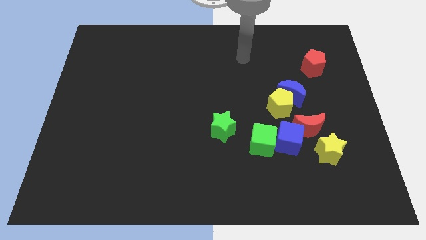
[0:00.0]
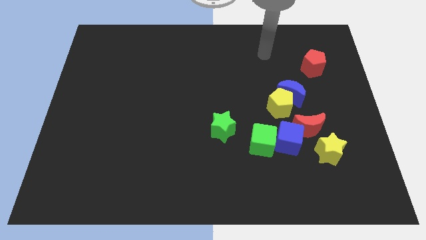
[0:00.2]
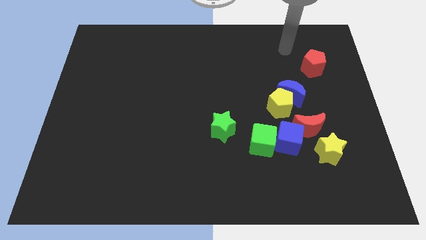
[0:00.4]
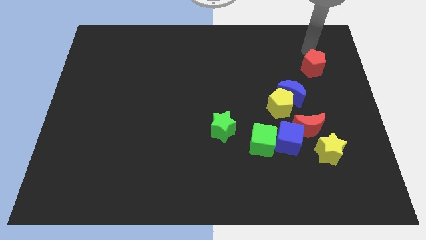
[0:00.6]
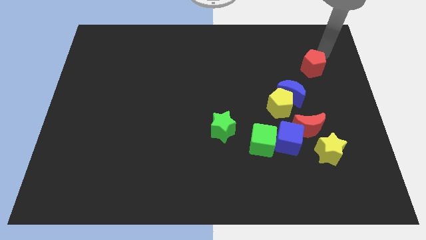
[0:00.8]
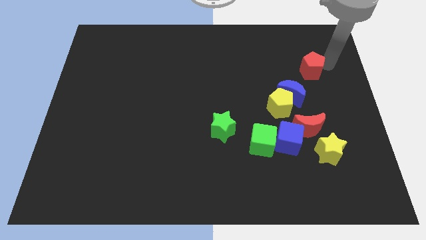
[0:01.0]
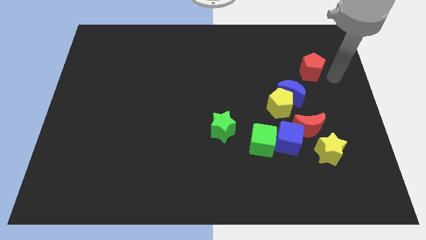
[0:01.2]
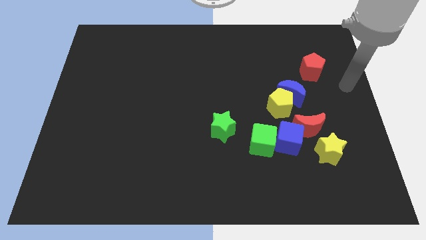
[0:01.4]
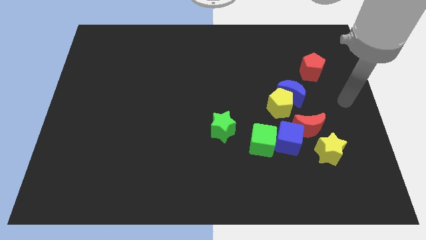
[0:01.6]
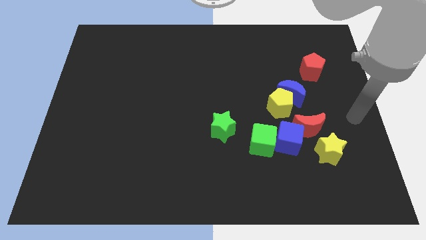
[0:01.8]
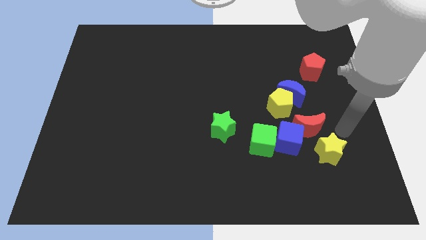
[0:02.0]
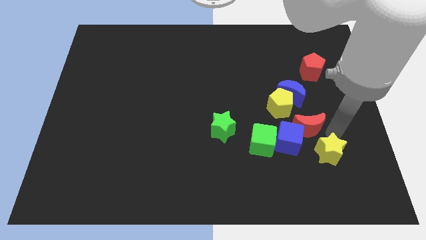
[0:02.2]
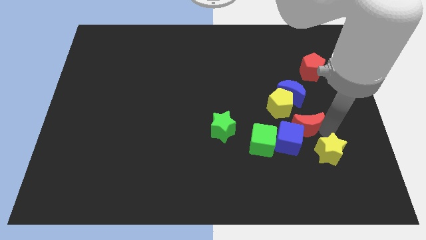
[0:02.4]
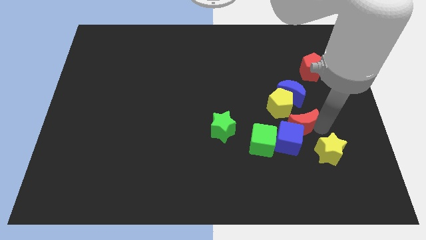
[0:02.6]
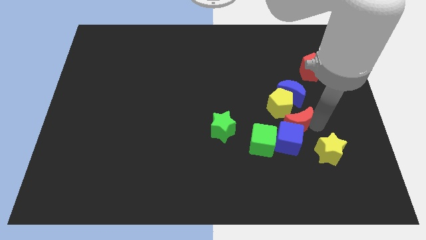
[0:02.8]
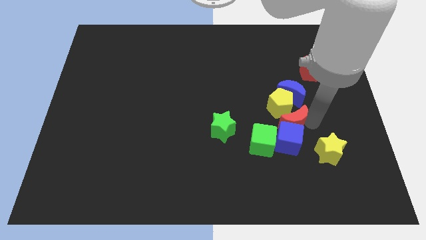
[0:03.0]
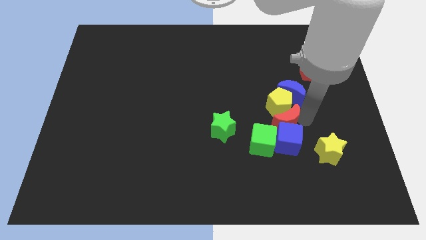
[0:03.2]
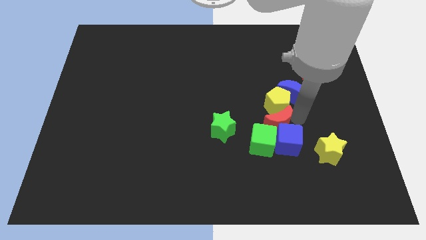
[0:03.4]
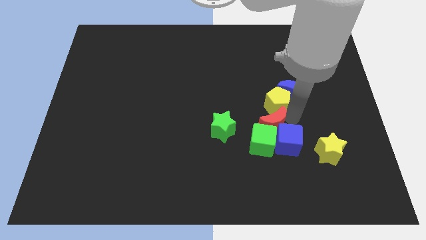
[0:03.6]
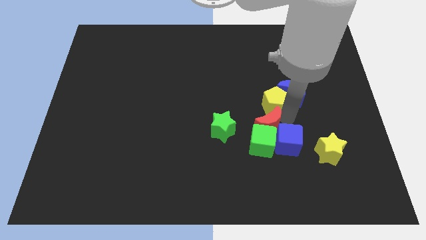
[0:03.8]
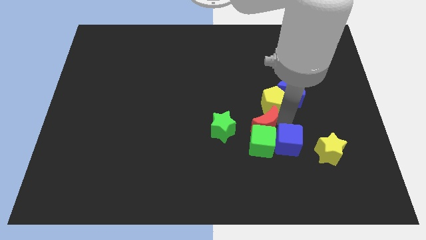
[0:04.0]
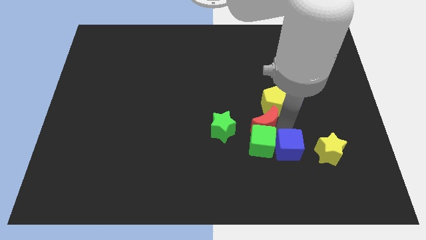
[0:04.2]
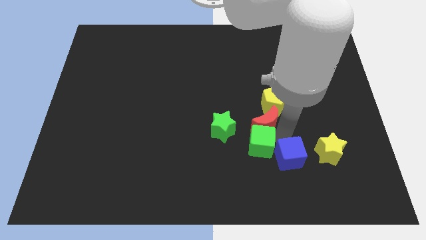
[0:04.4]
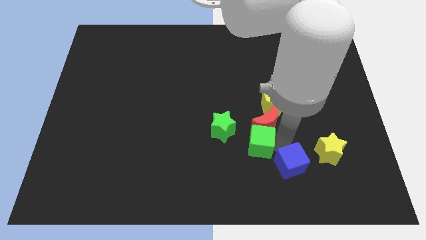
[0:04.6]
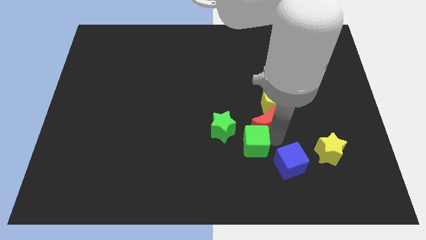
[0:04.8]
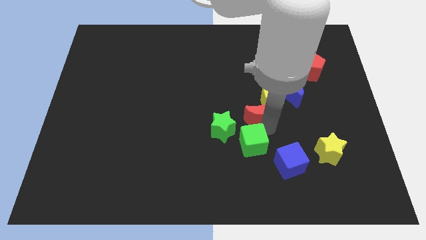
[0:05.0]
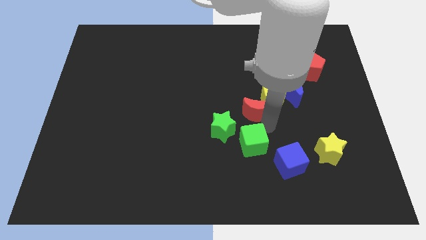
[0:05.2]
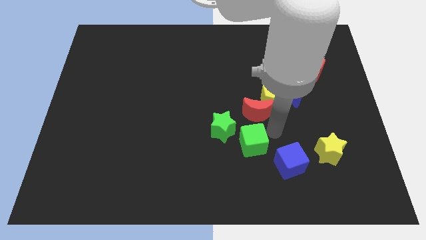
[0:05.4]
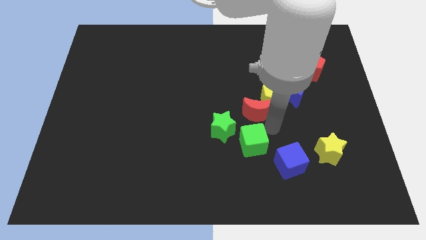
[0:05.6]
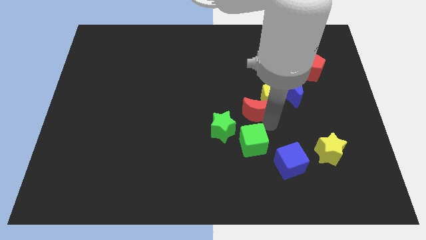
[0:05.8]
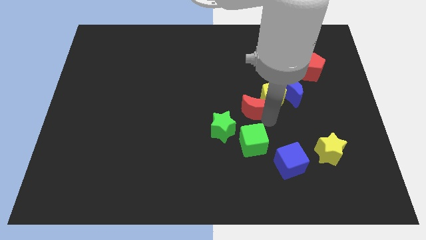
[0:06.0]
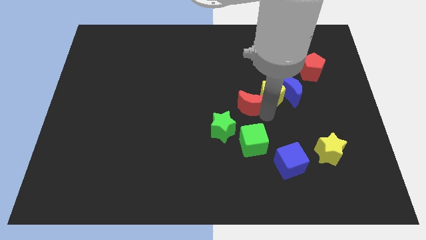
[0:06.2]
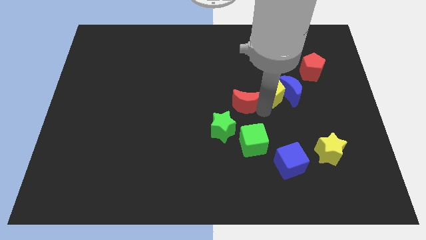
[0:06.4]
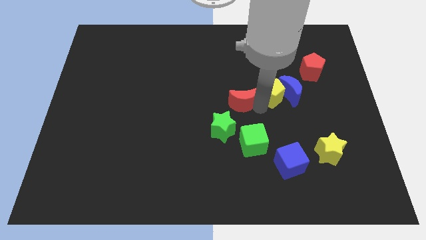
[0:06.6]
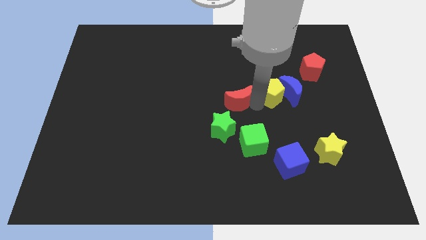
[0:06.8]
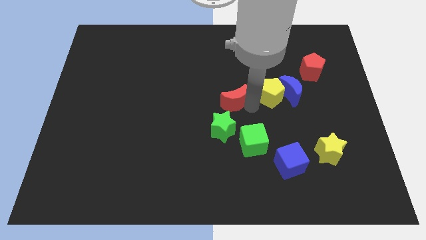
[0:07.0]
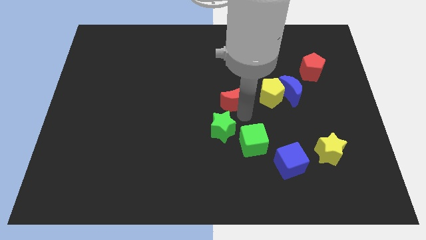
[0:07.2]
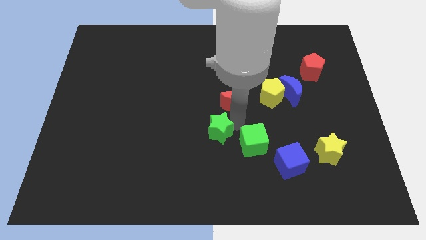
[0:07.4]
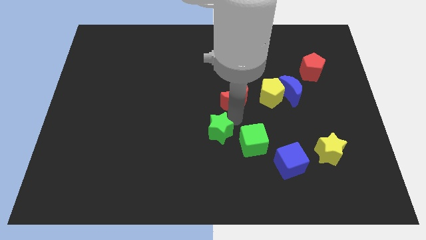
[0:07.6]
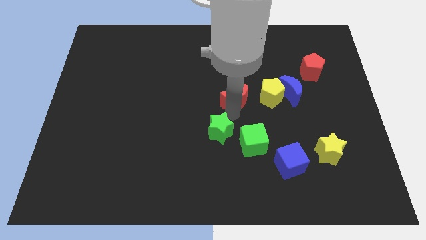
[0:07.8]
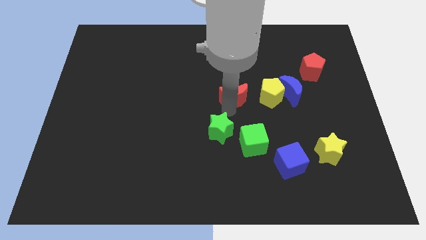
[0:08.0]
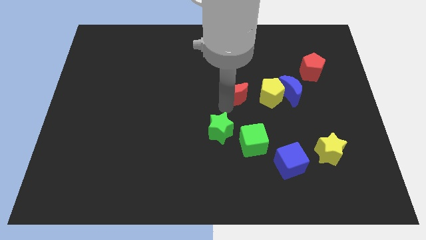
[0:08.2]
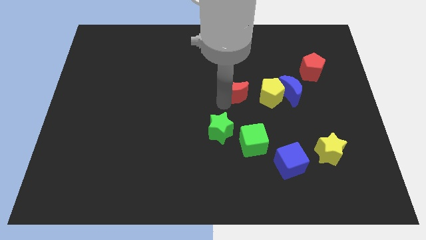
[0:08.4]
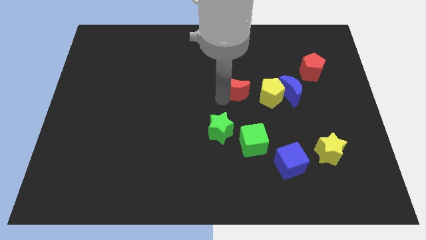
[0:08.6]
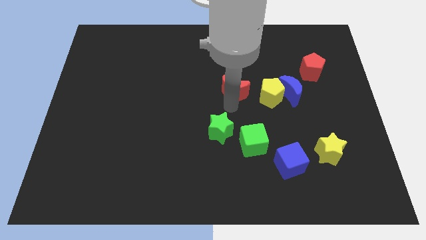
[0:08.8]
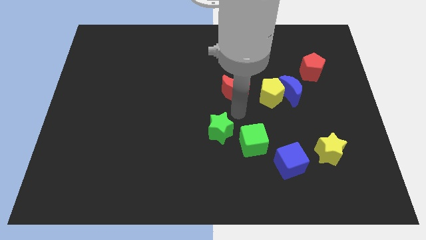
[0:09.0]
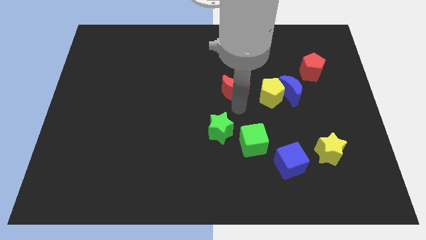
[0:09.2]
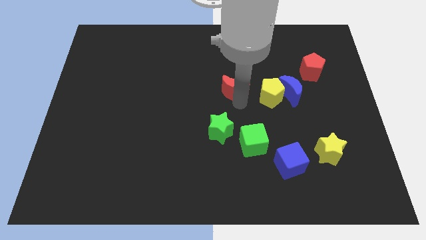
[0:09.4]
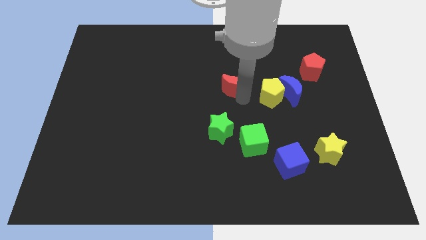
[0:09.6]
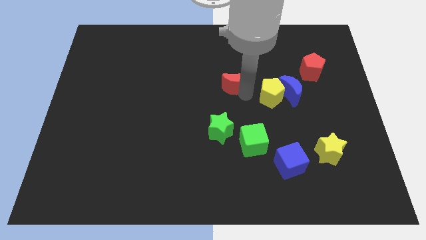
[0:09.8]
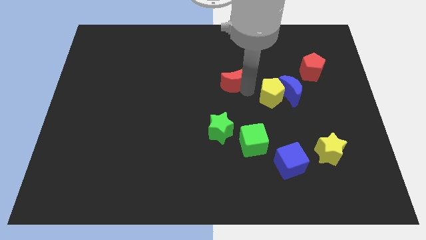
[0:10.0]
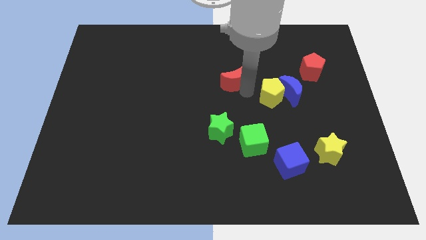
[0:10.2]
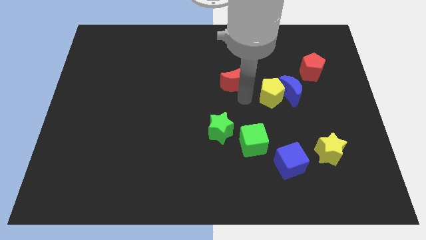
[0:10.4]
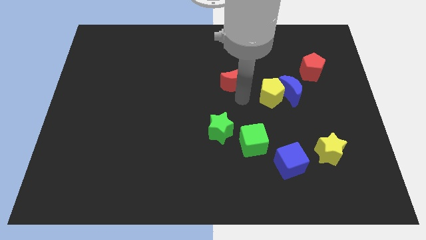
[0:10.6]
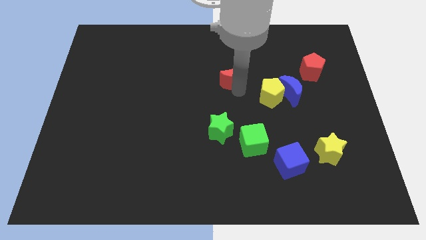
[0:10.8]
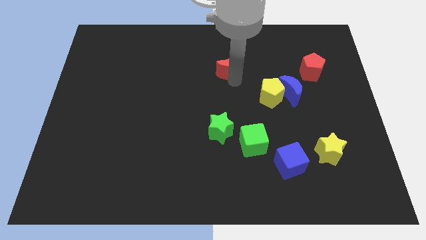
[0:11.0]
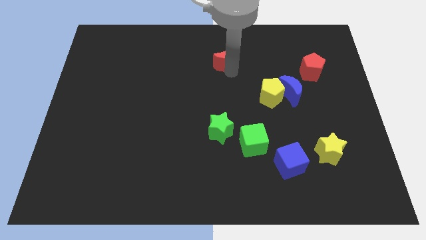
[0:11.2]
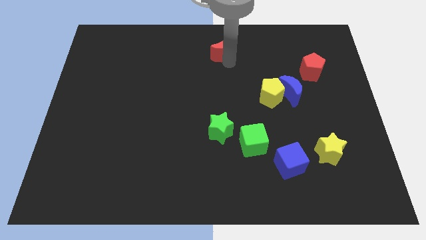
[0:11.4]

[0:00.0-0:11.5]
move the red moon to the towards your base

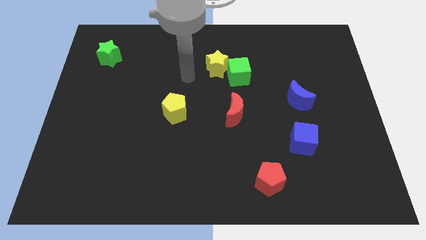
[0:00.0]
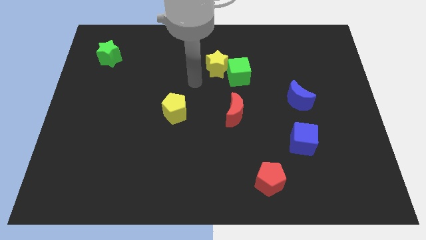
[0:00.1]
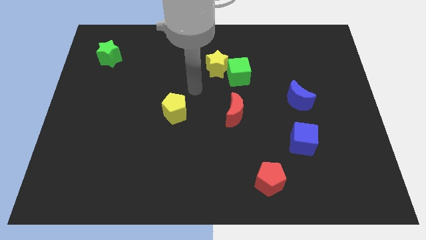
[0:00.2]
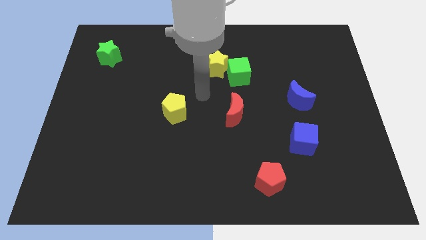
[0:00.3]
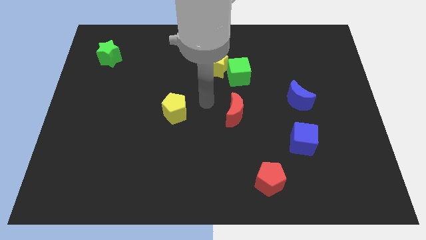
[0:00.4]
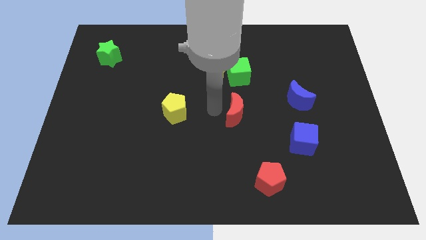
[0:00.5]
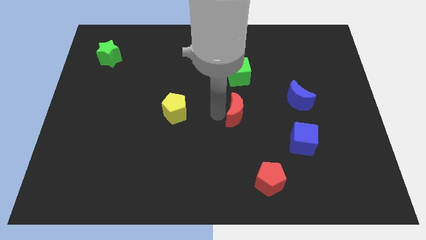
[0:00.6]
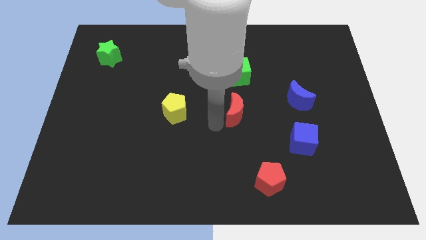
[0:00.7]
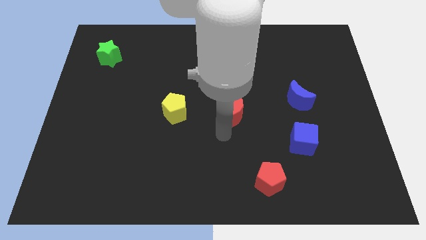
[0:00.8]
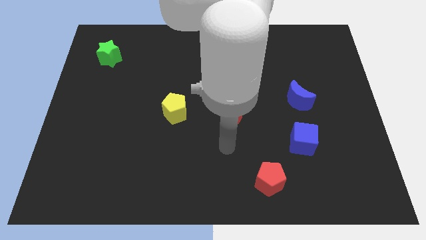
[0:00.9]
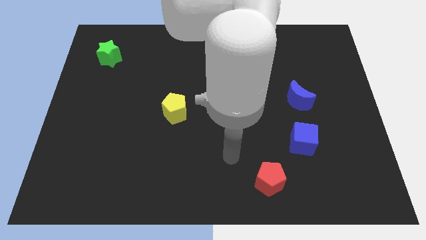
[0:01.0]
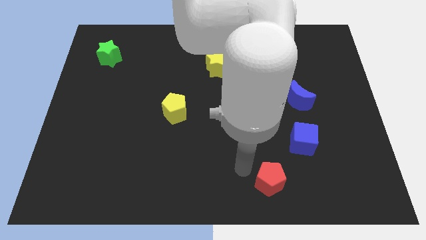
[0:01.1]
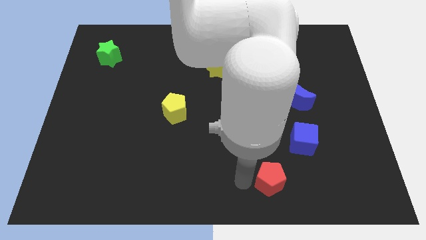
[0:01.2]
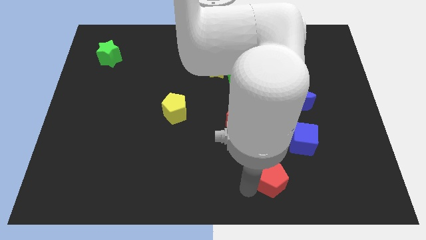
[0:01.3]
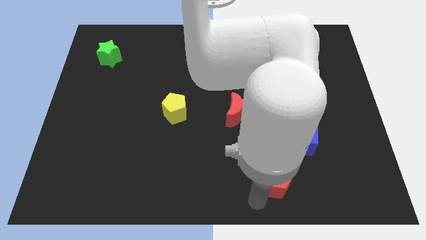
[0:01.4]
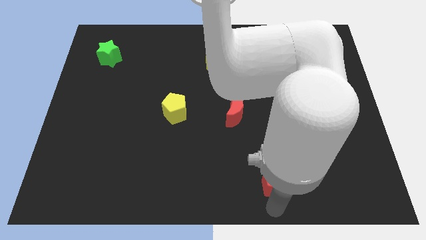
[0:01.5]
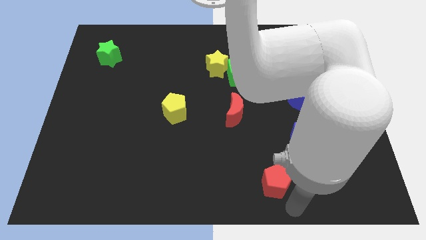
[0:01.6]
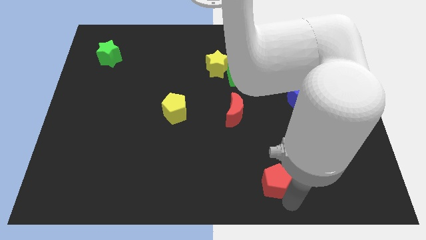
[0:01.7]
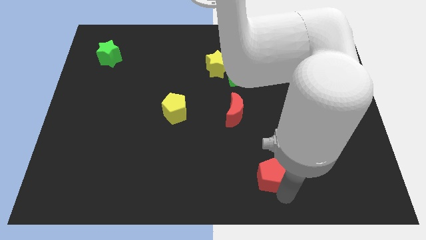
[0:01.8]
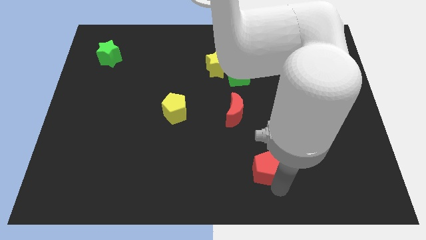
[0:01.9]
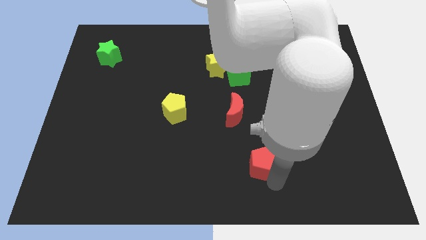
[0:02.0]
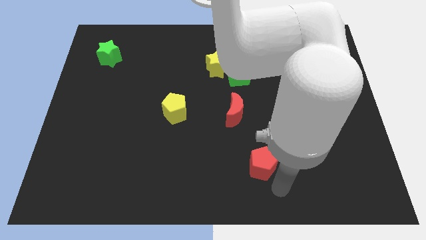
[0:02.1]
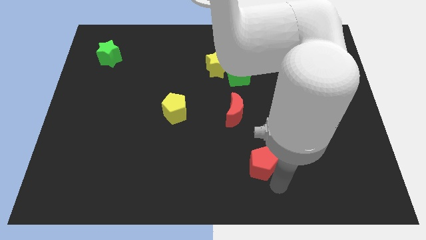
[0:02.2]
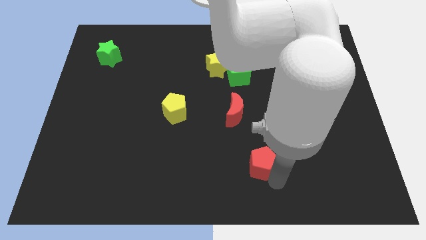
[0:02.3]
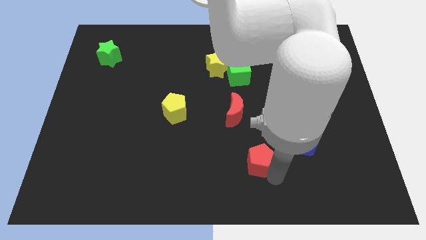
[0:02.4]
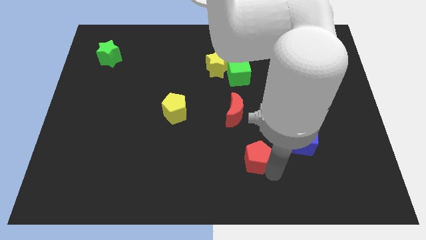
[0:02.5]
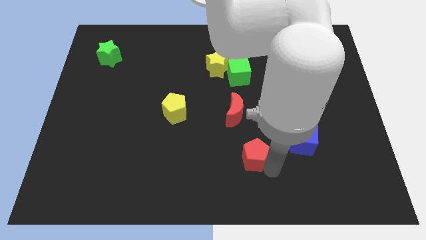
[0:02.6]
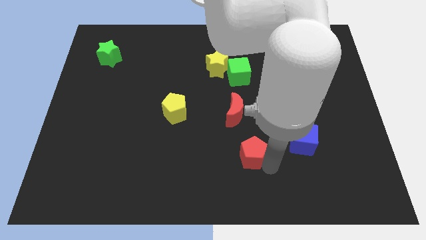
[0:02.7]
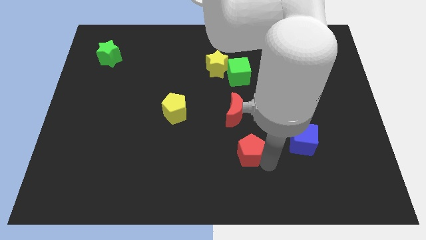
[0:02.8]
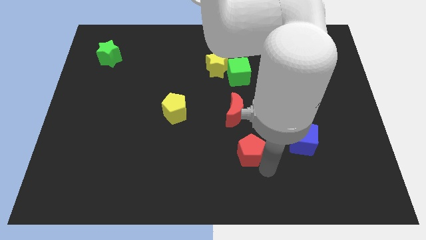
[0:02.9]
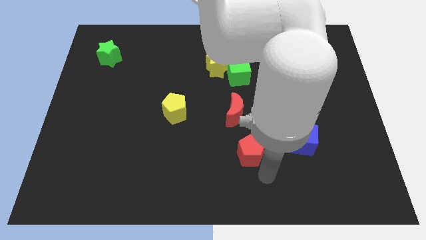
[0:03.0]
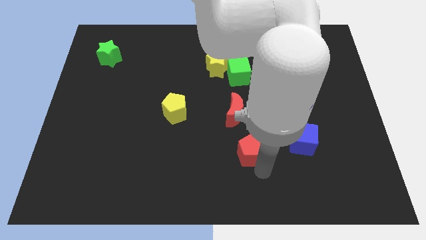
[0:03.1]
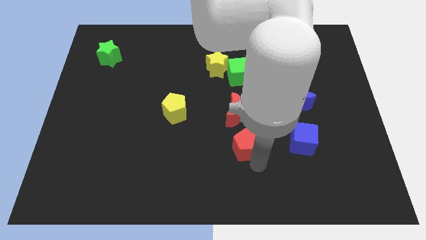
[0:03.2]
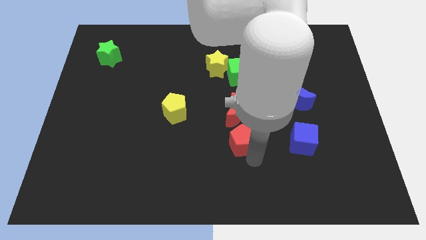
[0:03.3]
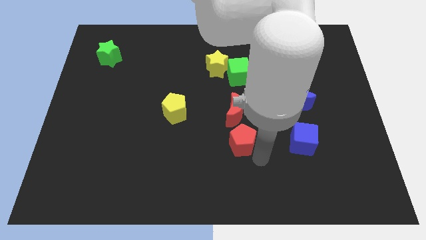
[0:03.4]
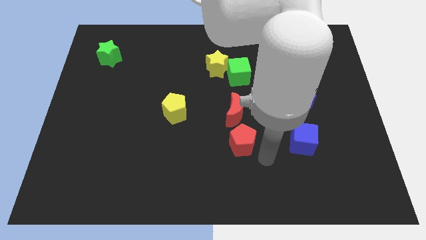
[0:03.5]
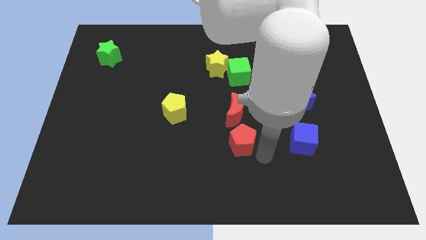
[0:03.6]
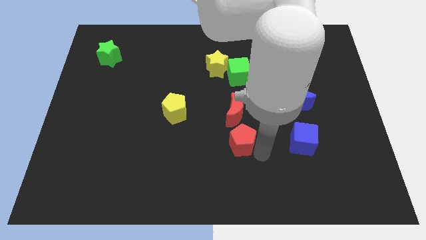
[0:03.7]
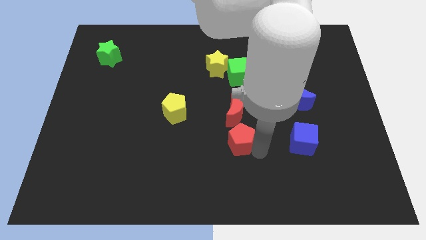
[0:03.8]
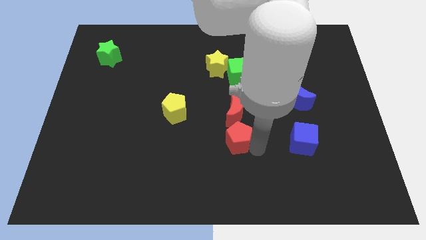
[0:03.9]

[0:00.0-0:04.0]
move the red pentagon to the middle of the board
